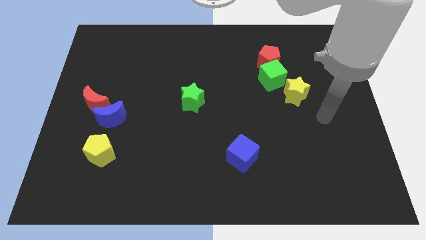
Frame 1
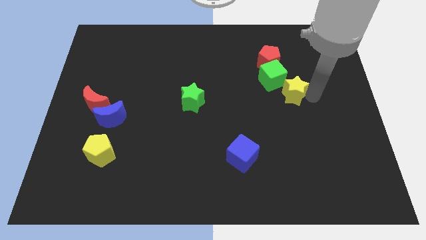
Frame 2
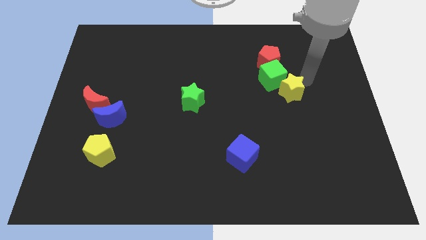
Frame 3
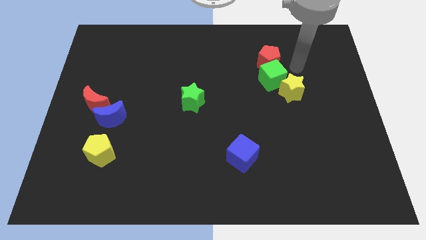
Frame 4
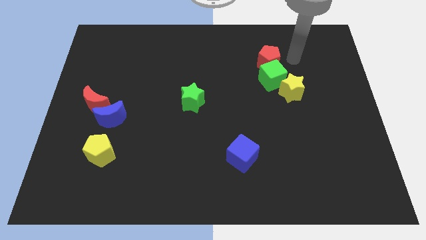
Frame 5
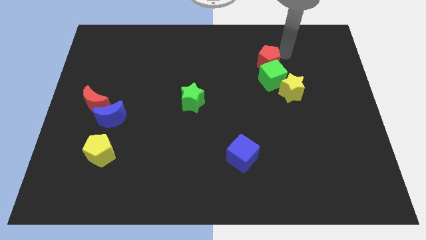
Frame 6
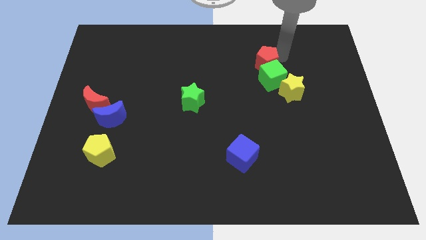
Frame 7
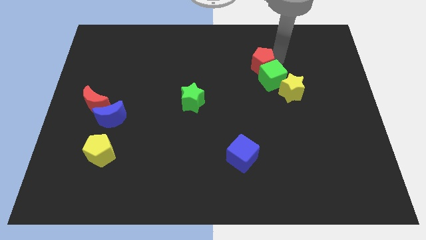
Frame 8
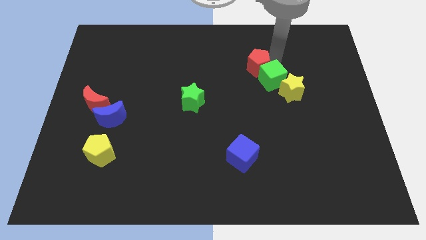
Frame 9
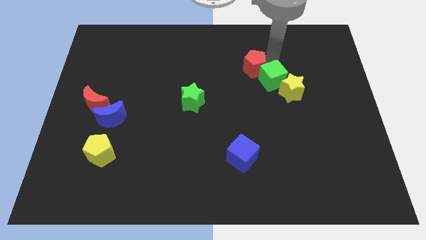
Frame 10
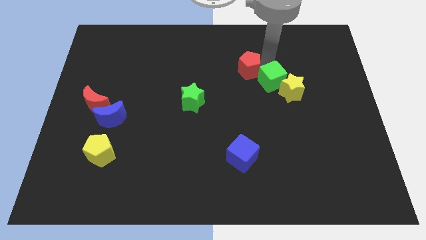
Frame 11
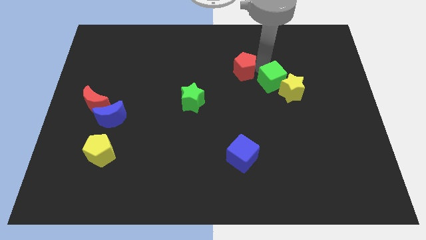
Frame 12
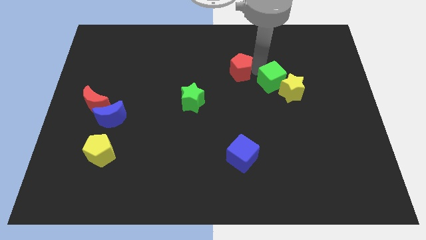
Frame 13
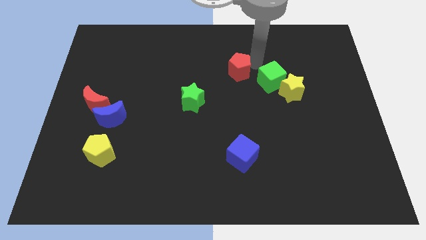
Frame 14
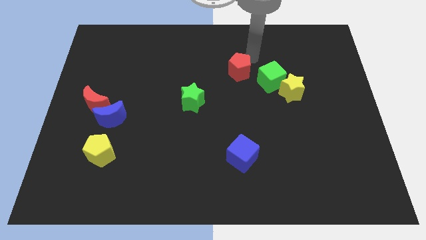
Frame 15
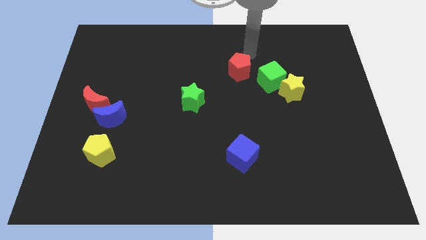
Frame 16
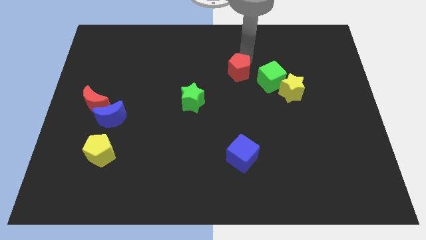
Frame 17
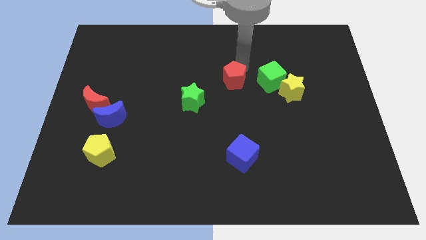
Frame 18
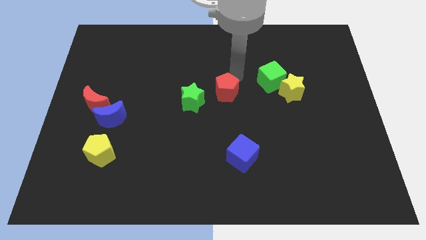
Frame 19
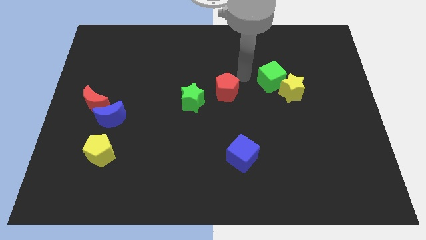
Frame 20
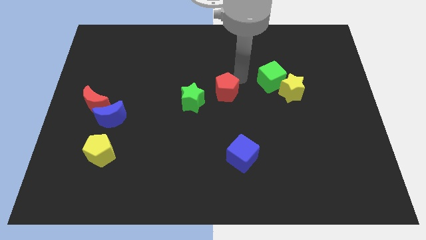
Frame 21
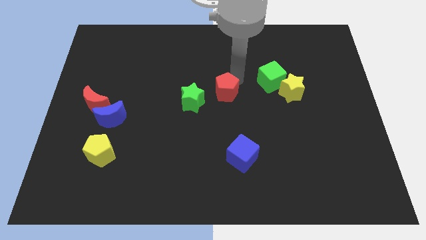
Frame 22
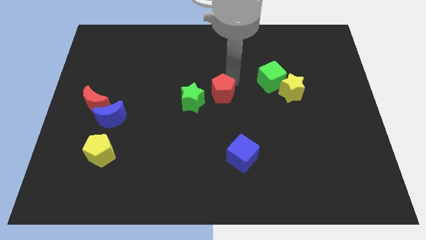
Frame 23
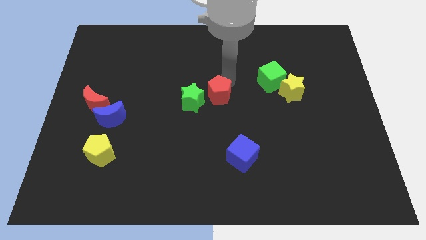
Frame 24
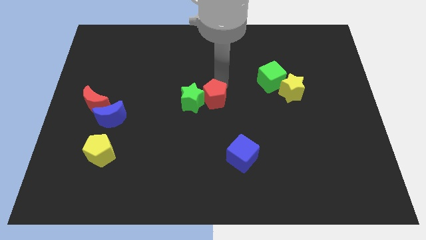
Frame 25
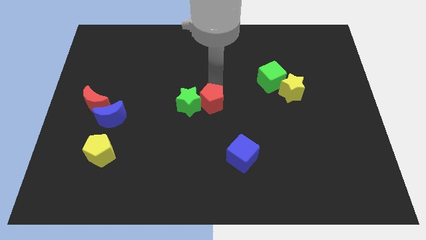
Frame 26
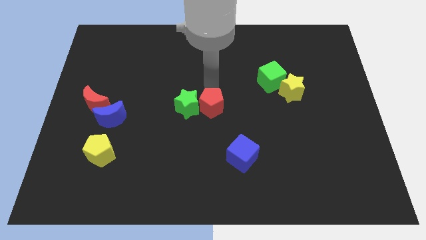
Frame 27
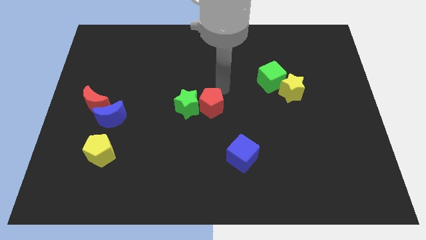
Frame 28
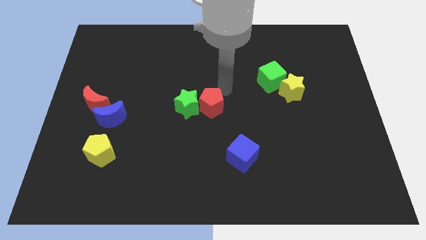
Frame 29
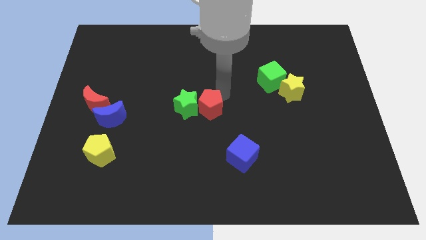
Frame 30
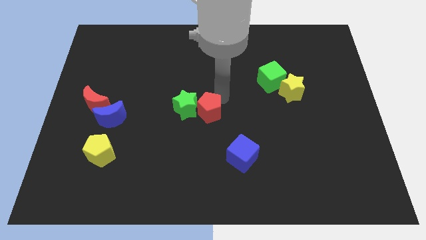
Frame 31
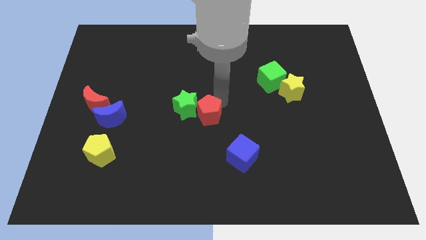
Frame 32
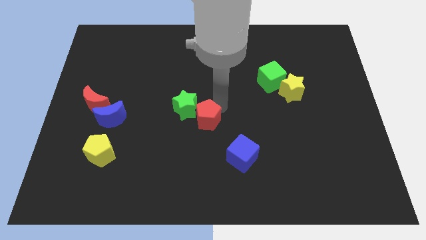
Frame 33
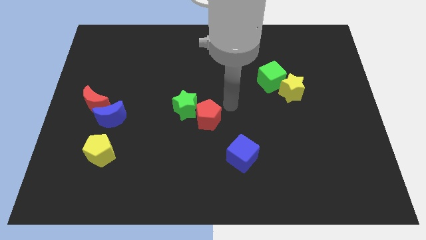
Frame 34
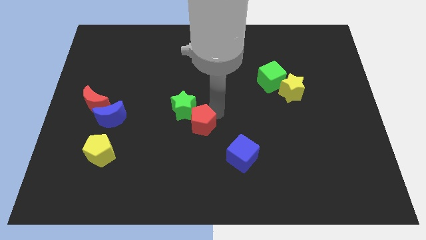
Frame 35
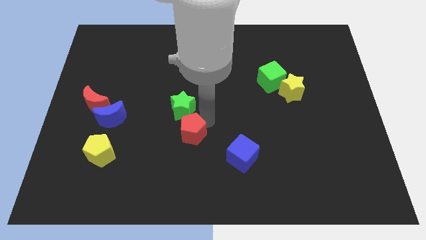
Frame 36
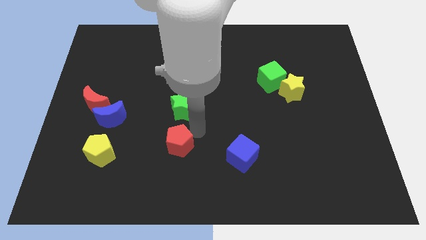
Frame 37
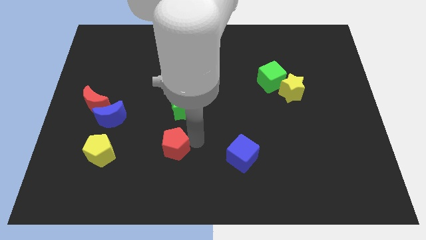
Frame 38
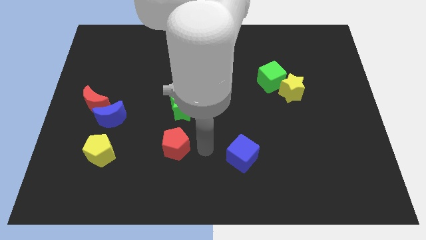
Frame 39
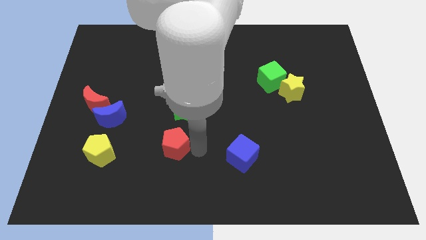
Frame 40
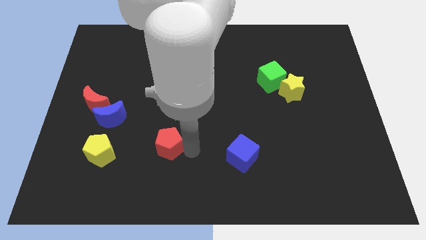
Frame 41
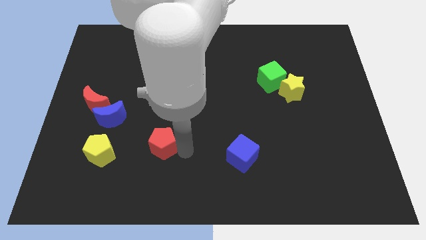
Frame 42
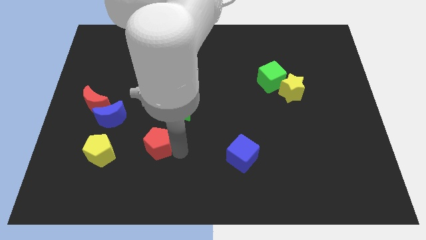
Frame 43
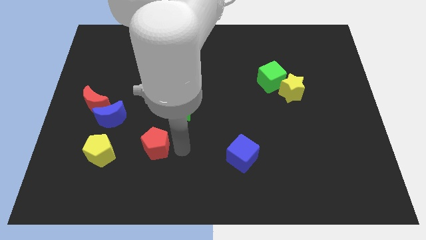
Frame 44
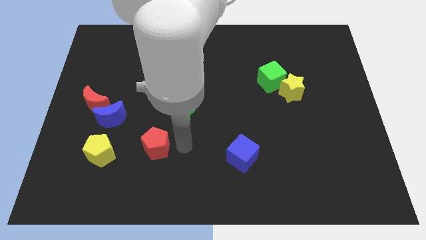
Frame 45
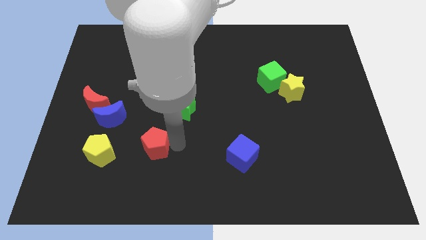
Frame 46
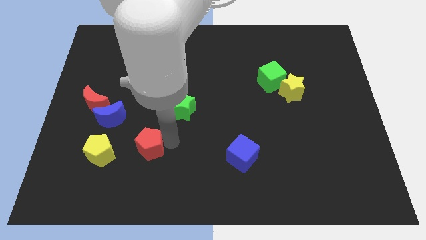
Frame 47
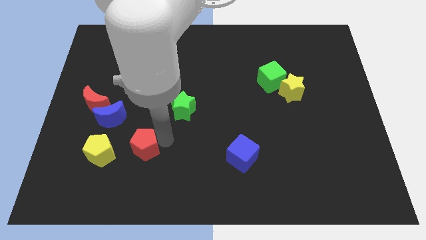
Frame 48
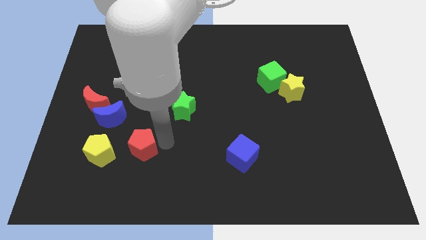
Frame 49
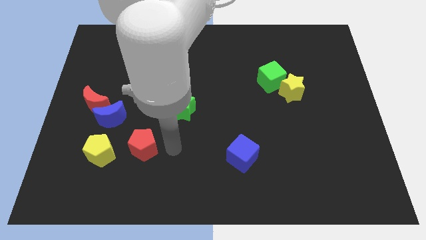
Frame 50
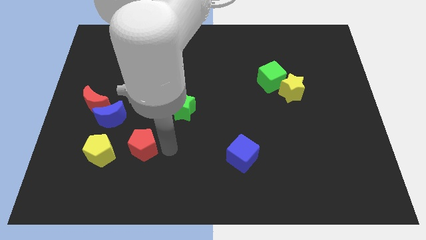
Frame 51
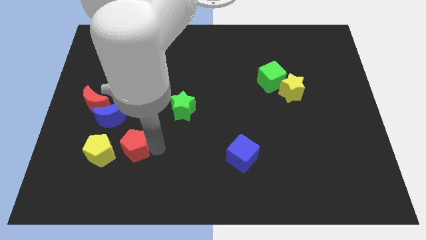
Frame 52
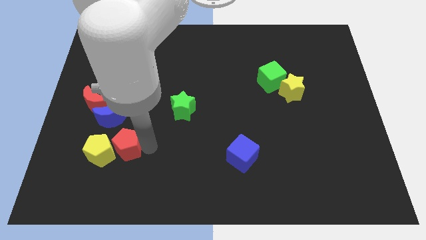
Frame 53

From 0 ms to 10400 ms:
push the red pentagon towards the yellow pentagon

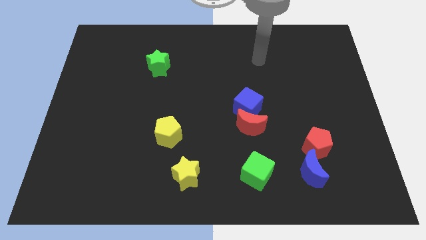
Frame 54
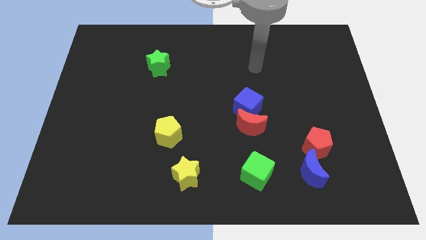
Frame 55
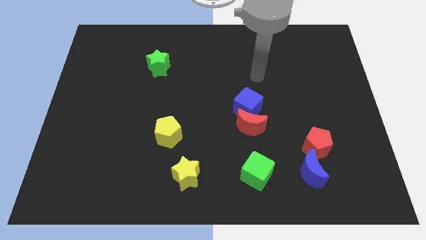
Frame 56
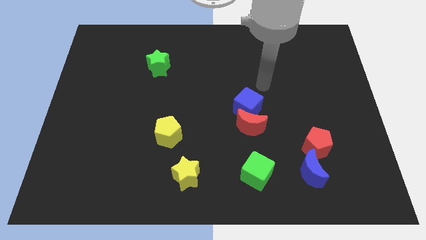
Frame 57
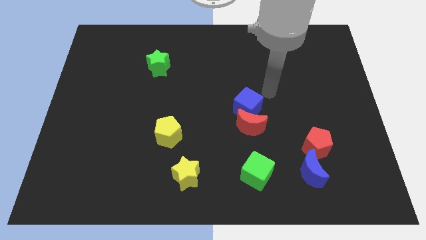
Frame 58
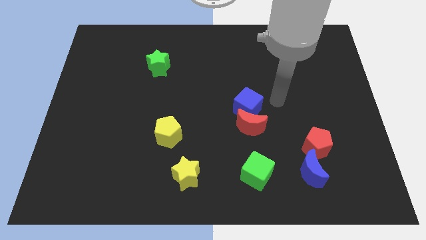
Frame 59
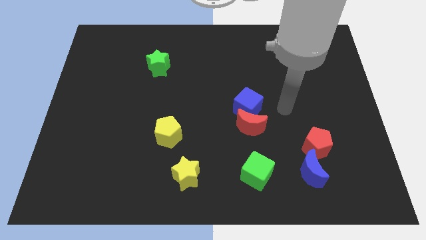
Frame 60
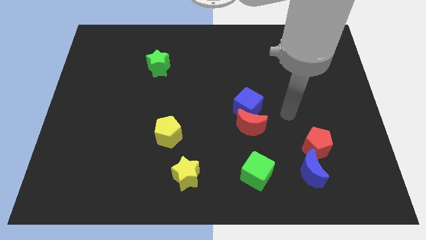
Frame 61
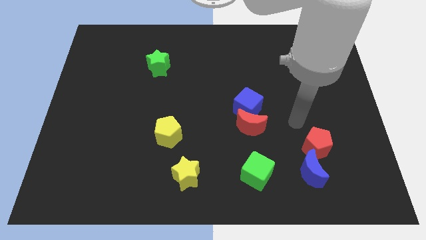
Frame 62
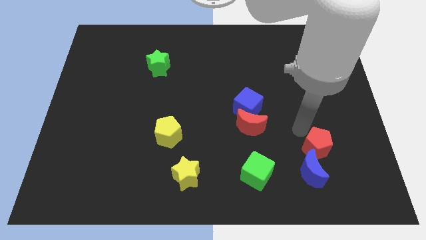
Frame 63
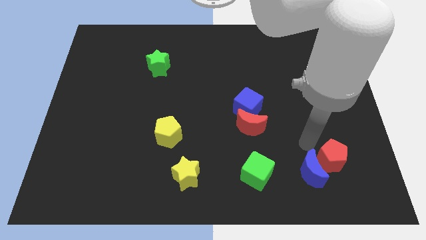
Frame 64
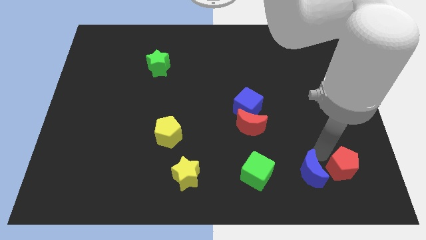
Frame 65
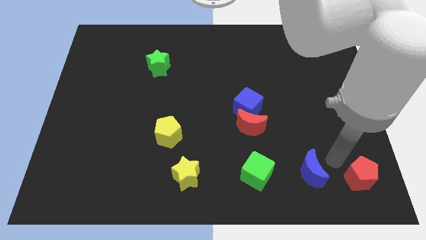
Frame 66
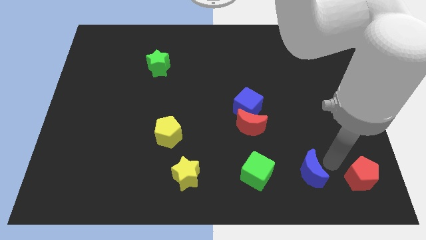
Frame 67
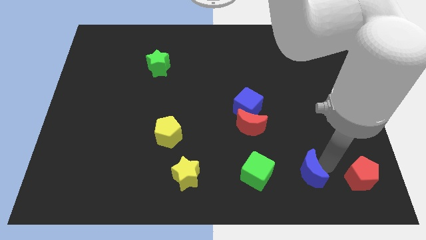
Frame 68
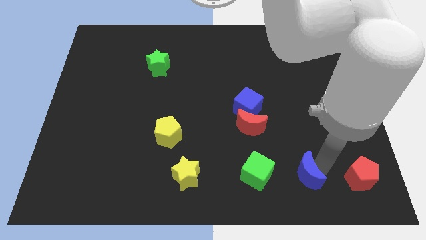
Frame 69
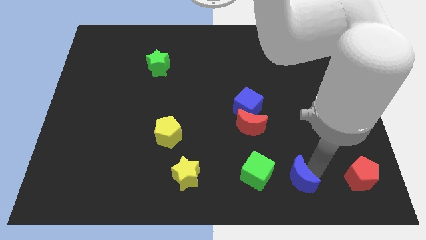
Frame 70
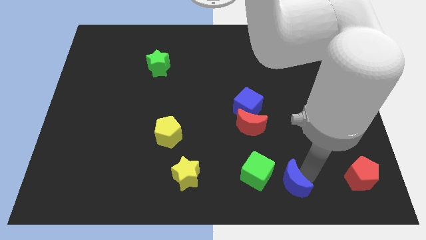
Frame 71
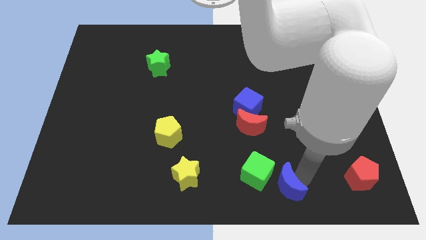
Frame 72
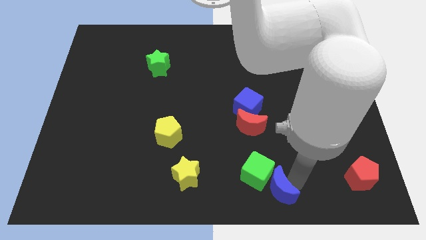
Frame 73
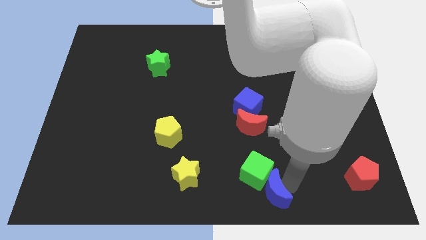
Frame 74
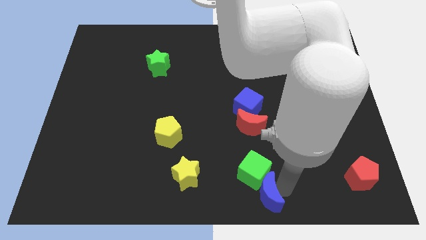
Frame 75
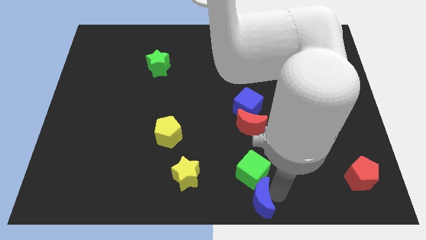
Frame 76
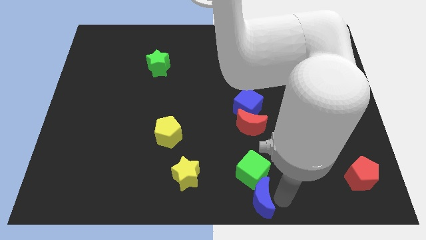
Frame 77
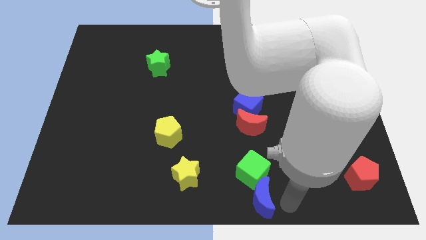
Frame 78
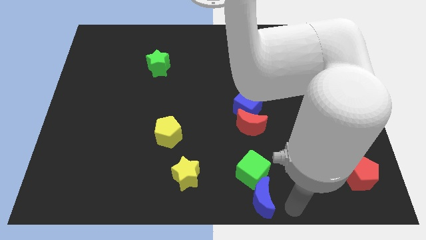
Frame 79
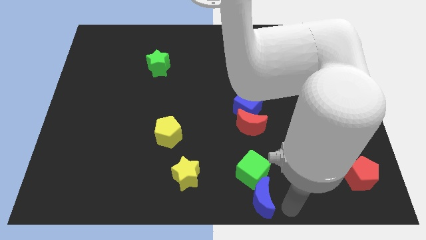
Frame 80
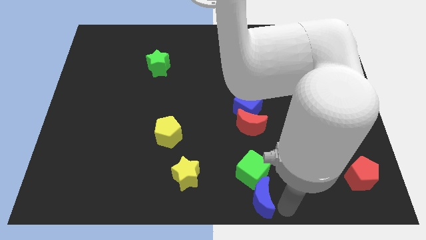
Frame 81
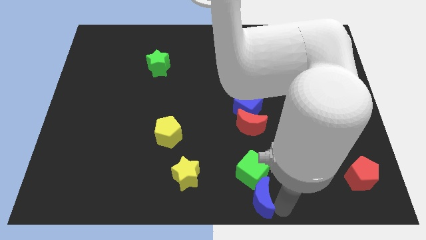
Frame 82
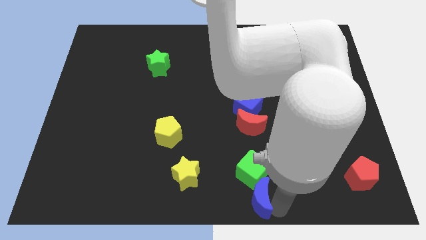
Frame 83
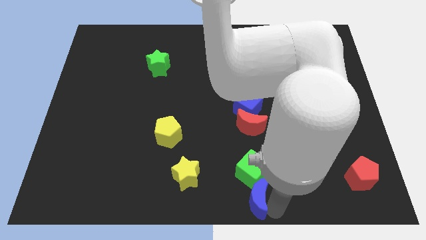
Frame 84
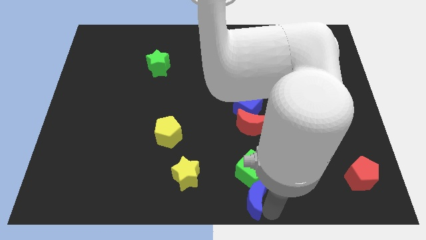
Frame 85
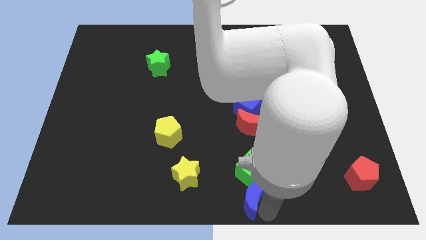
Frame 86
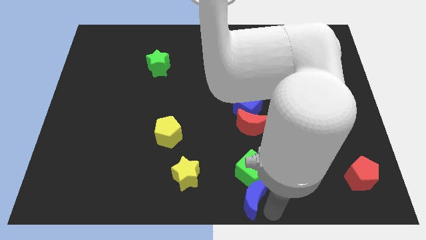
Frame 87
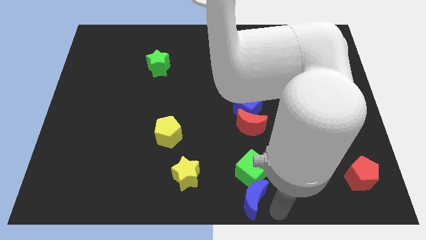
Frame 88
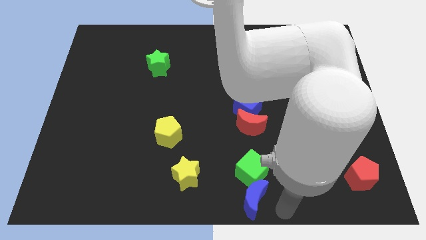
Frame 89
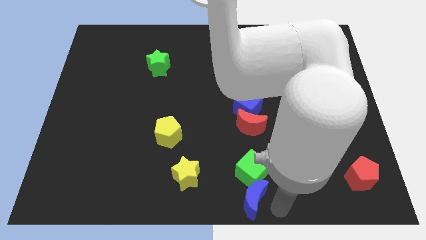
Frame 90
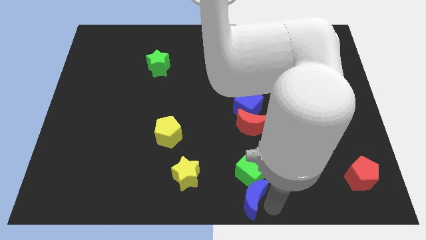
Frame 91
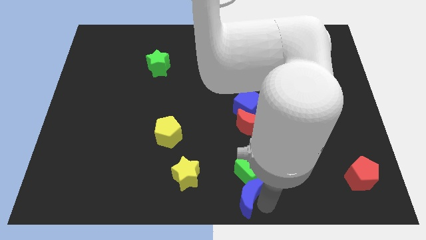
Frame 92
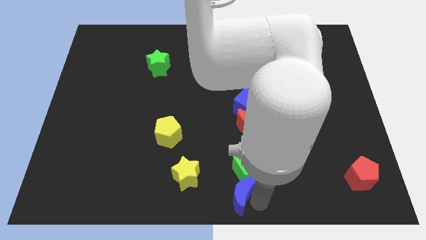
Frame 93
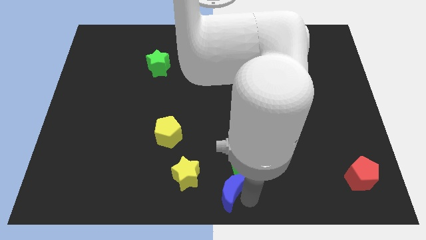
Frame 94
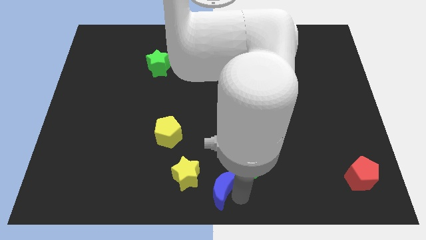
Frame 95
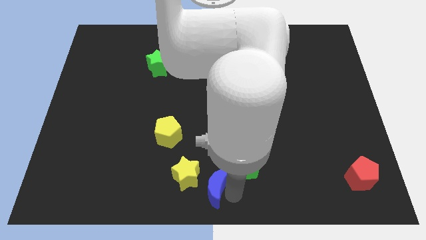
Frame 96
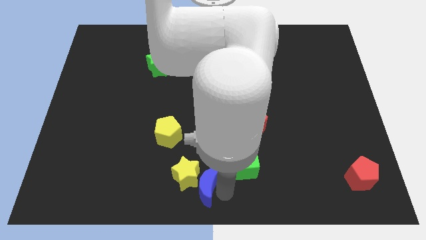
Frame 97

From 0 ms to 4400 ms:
push the blue moon to the yellow star
